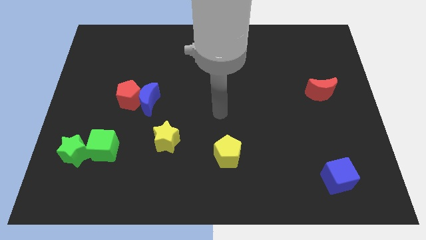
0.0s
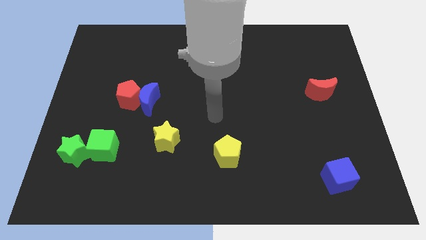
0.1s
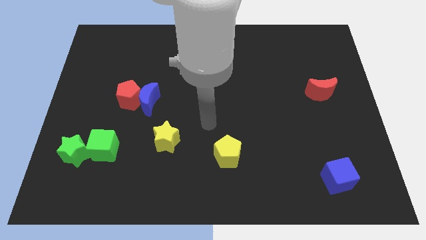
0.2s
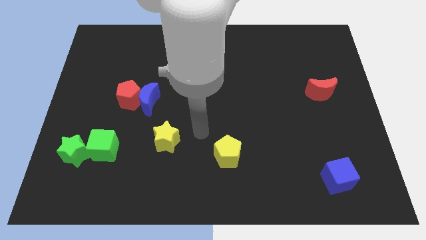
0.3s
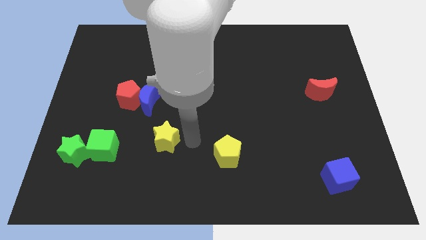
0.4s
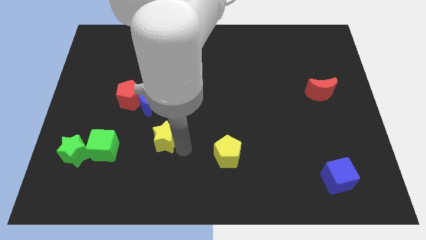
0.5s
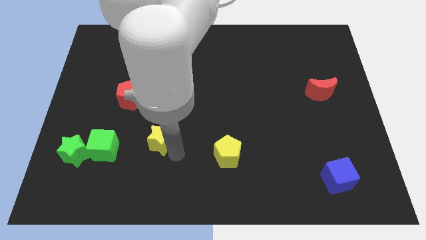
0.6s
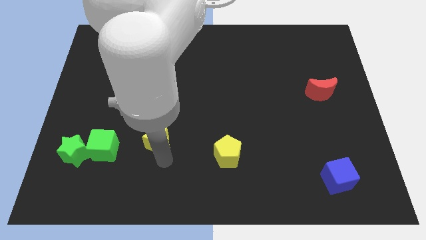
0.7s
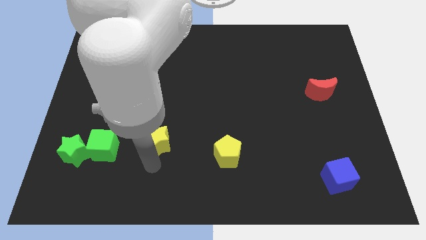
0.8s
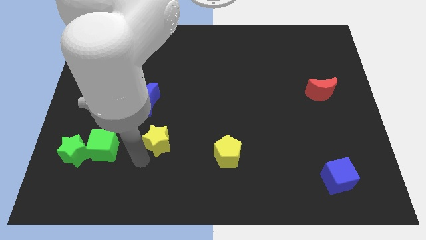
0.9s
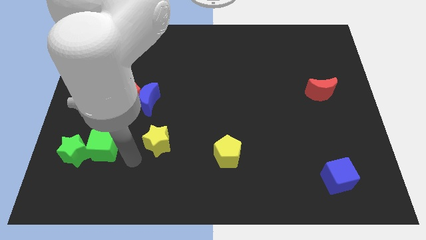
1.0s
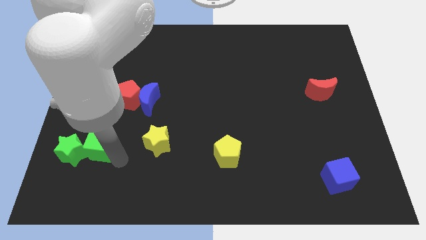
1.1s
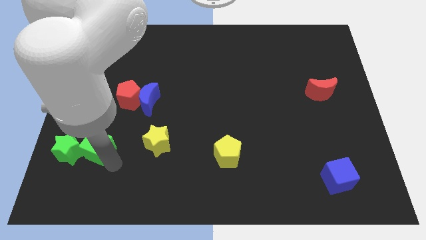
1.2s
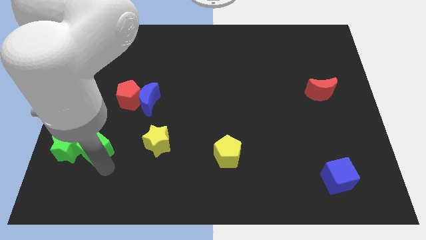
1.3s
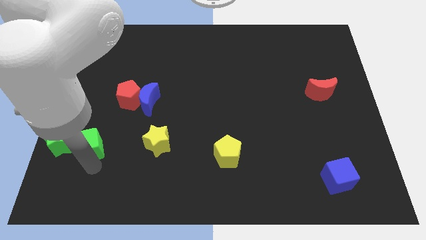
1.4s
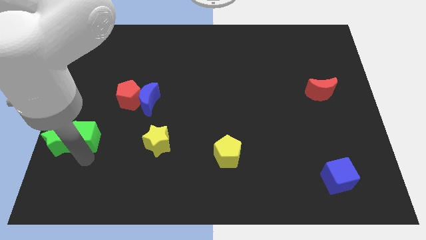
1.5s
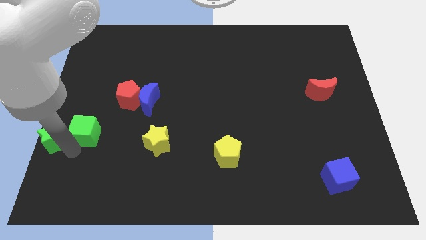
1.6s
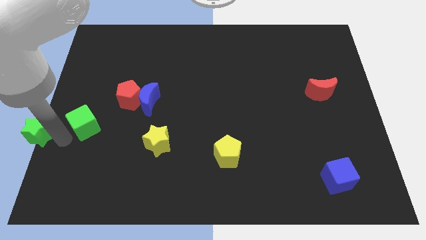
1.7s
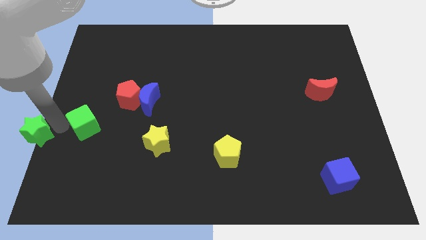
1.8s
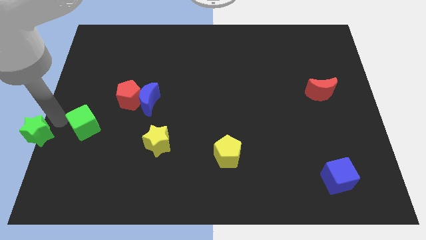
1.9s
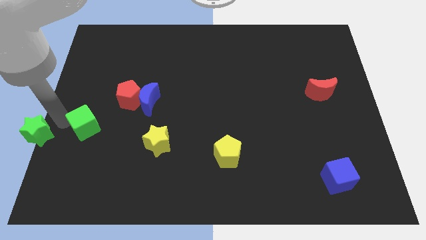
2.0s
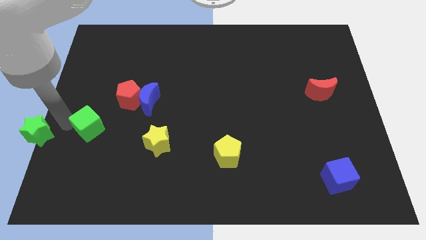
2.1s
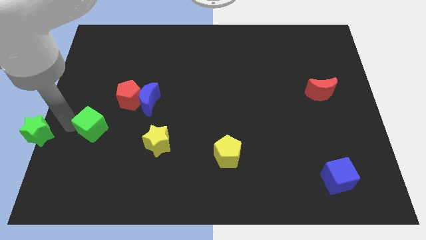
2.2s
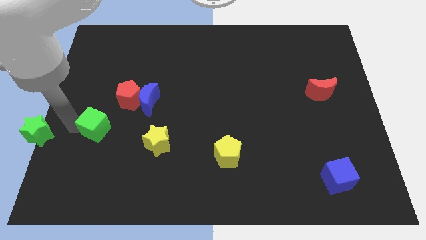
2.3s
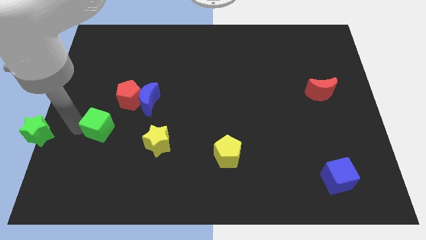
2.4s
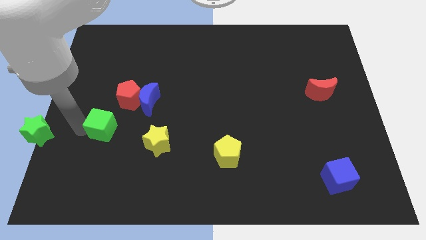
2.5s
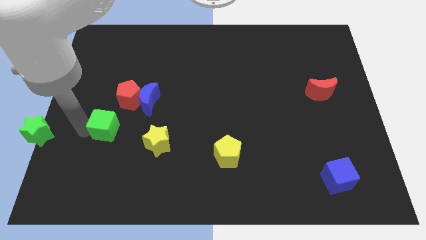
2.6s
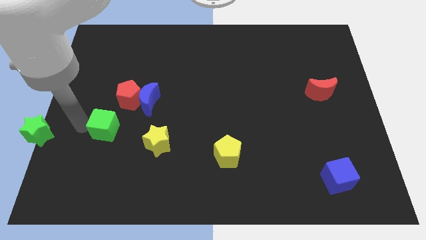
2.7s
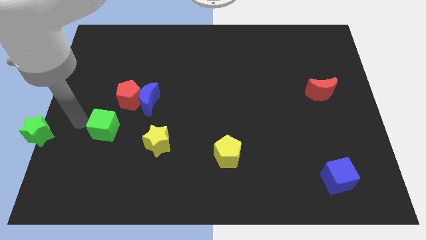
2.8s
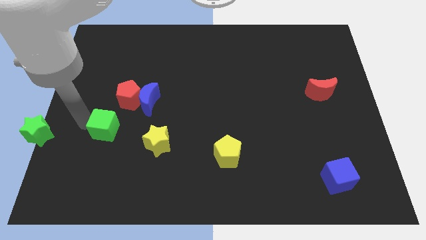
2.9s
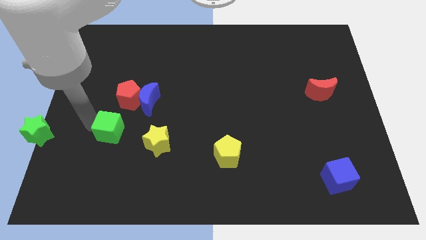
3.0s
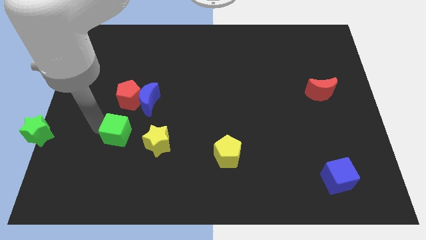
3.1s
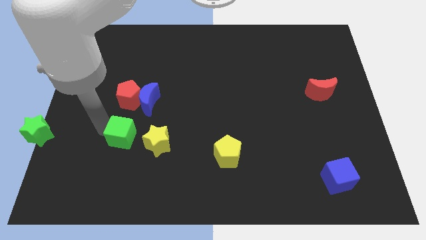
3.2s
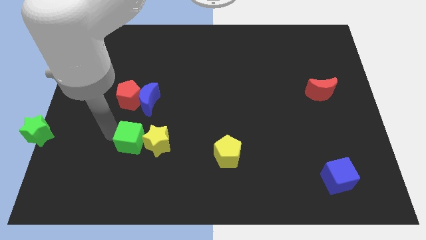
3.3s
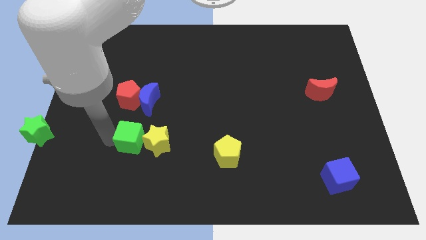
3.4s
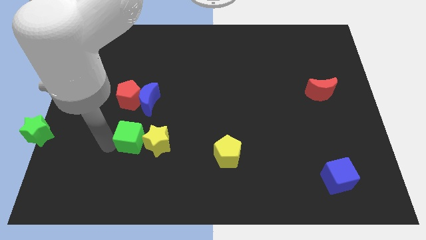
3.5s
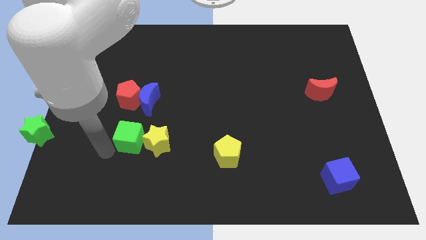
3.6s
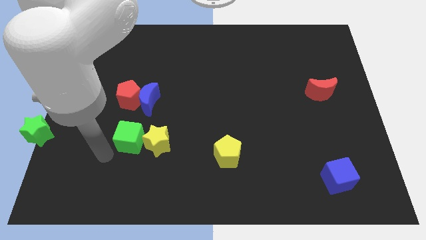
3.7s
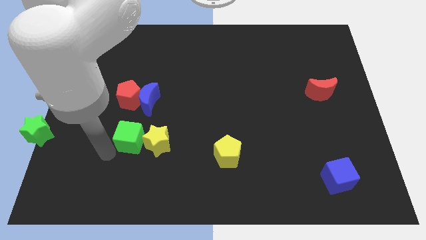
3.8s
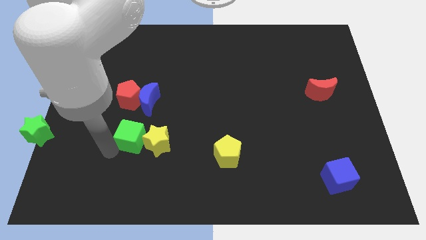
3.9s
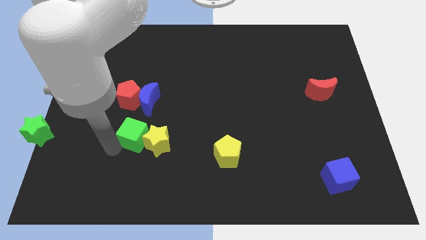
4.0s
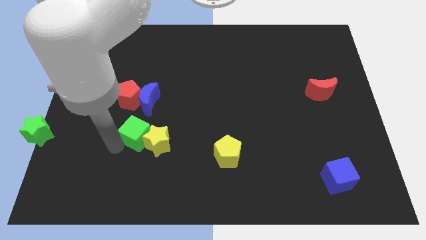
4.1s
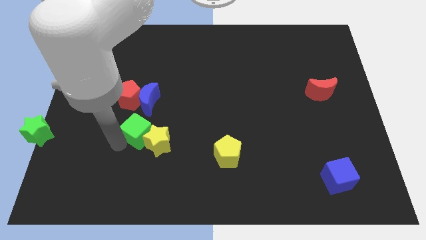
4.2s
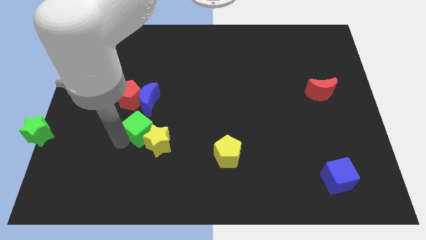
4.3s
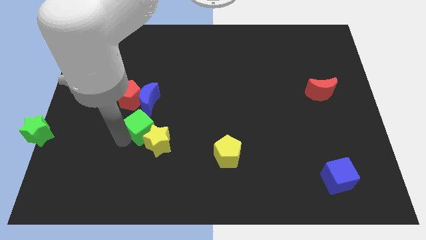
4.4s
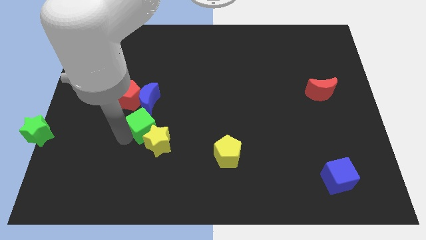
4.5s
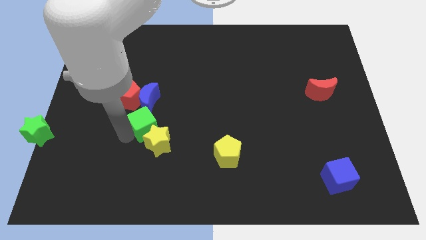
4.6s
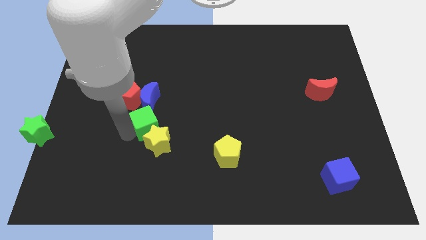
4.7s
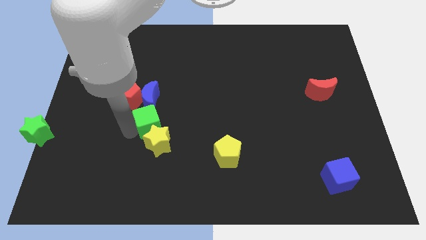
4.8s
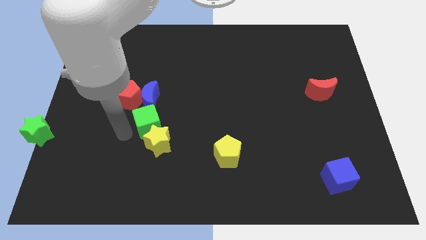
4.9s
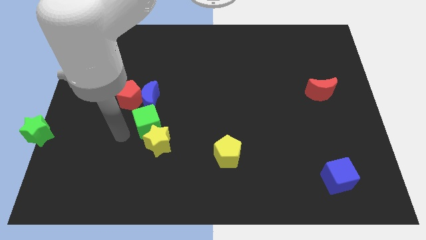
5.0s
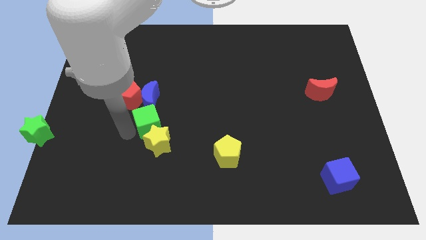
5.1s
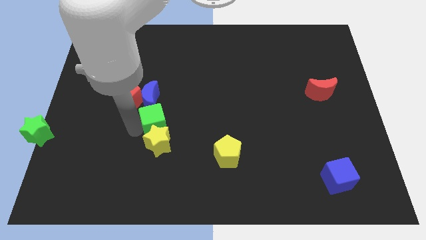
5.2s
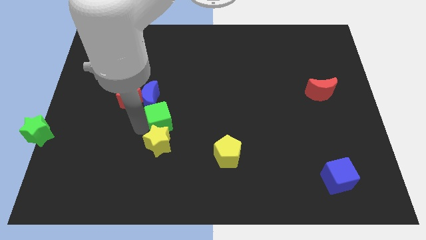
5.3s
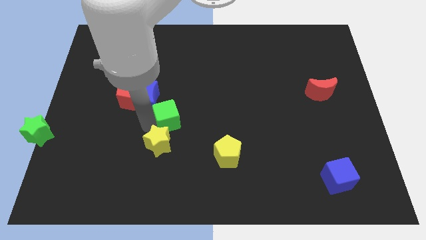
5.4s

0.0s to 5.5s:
slide the green cube to the middle of the board

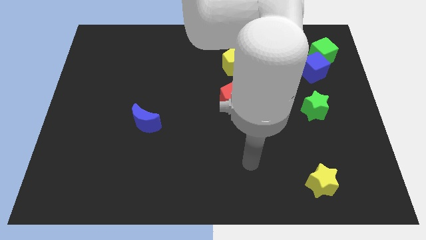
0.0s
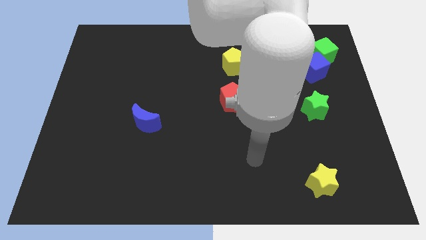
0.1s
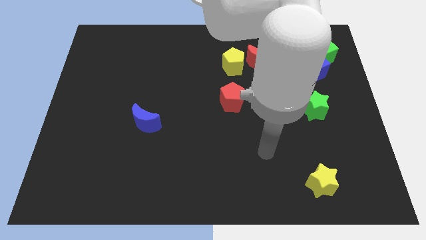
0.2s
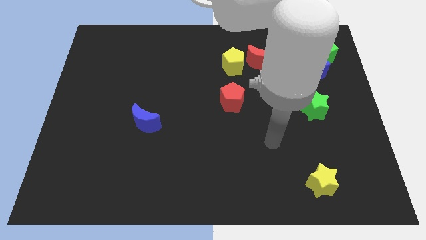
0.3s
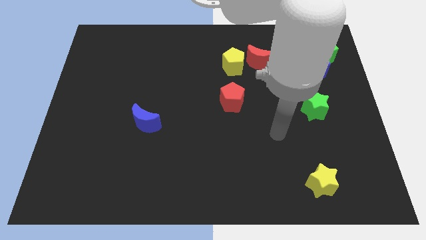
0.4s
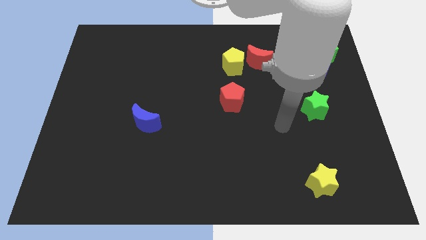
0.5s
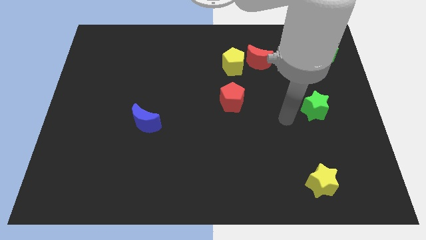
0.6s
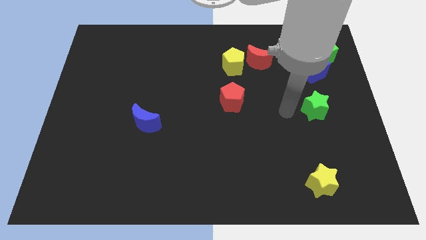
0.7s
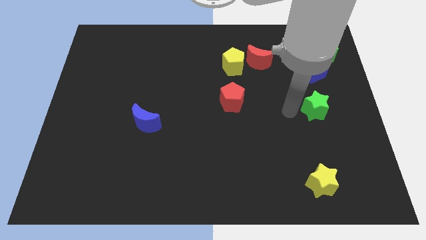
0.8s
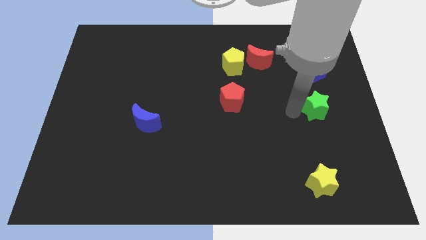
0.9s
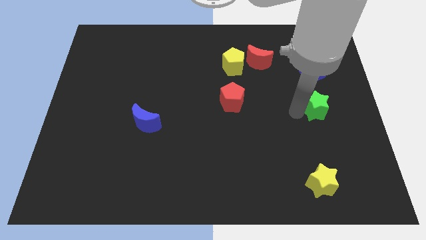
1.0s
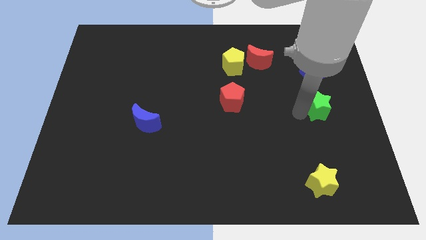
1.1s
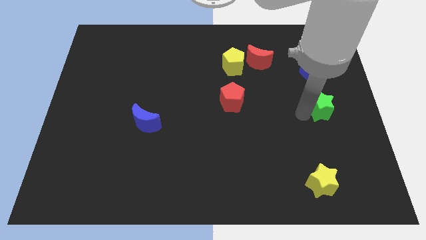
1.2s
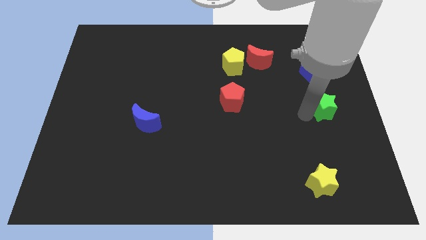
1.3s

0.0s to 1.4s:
slide the green star to the right side of the board
